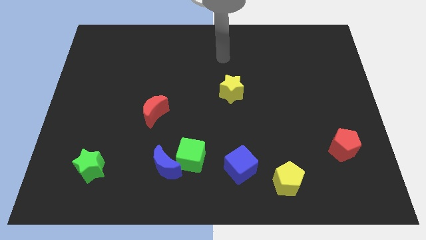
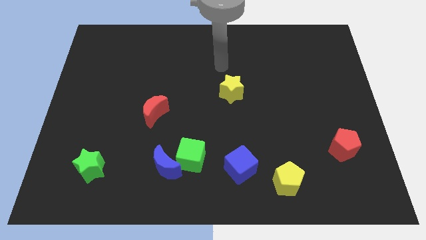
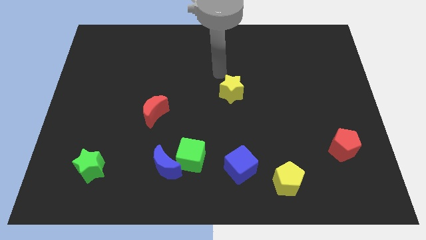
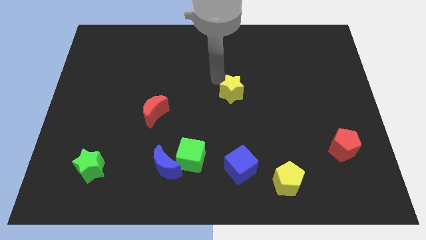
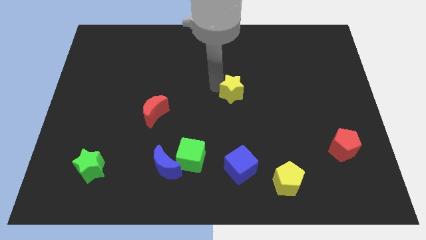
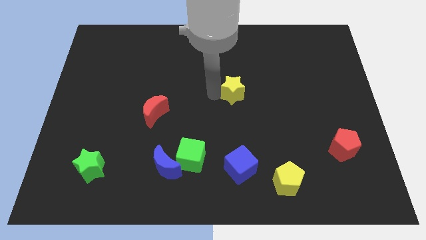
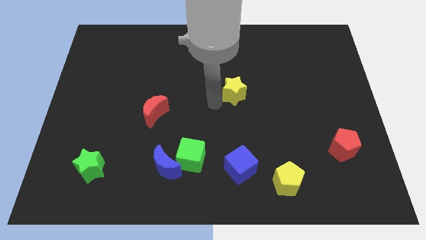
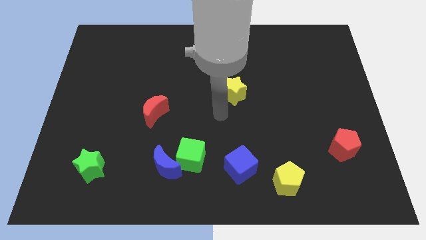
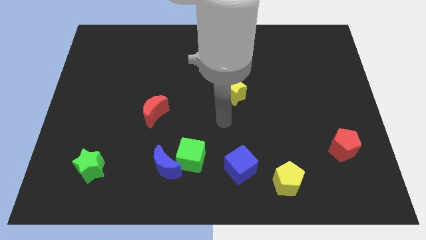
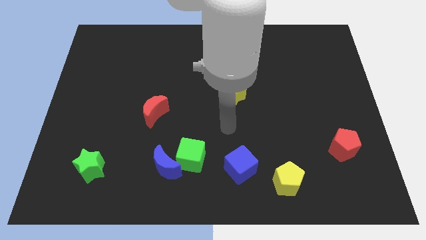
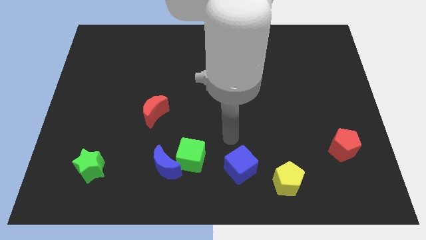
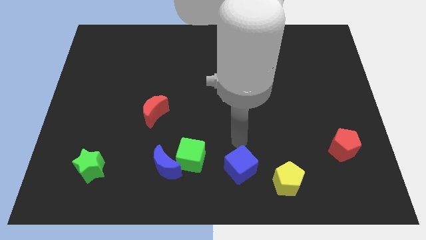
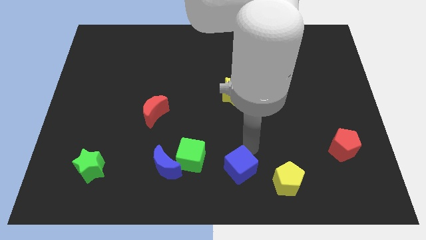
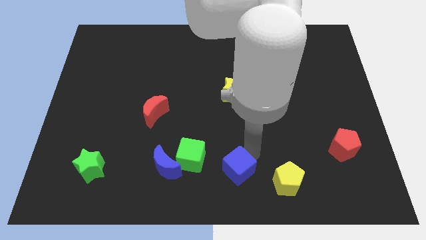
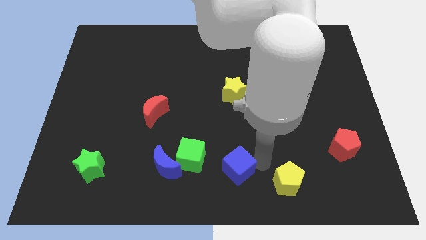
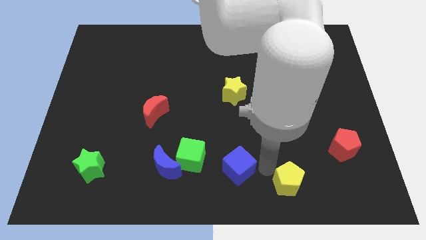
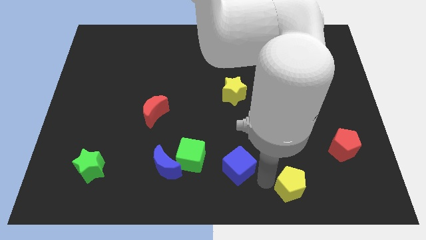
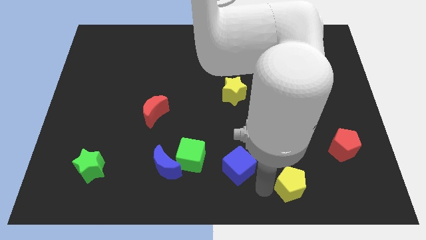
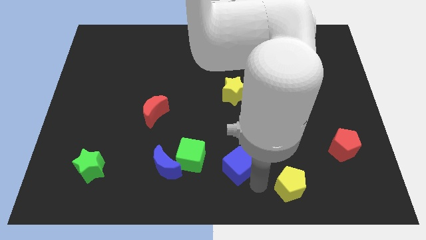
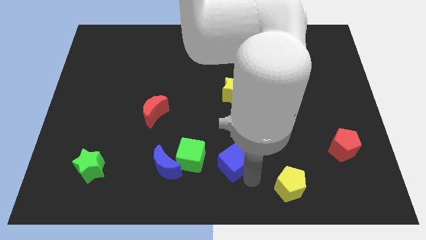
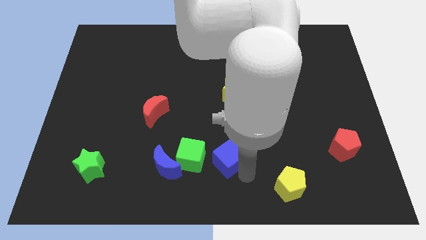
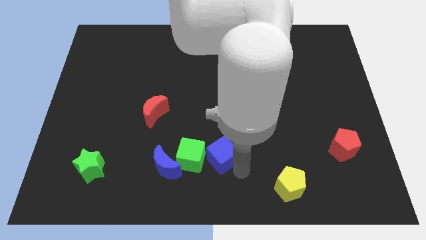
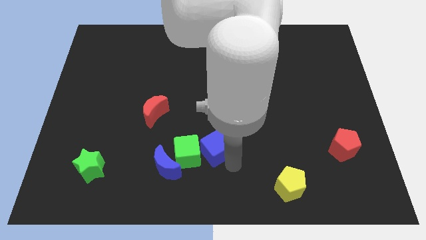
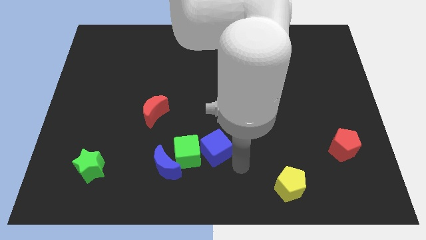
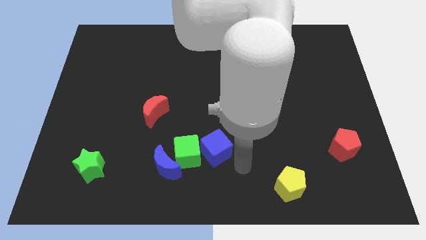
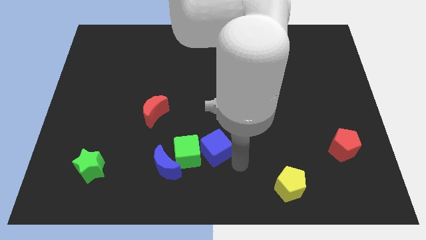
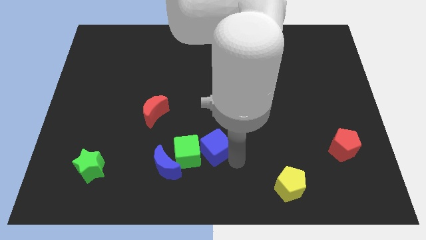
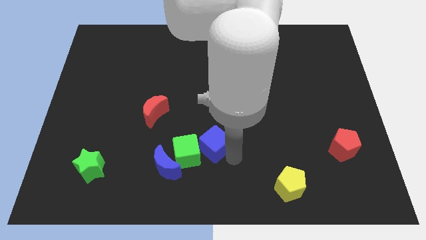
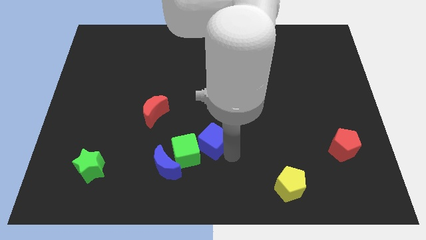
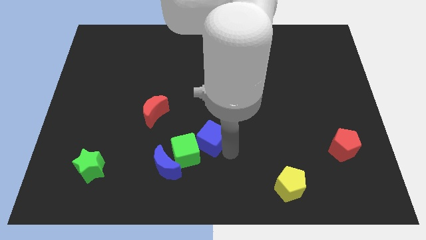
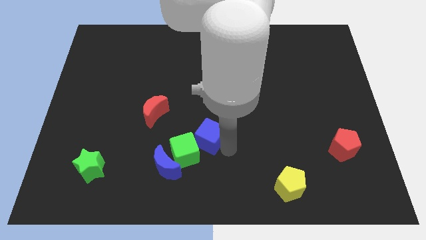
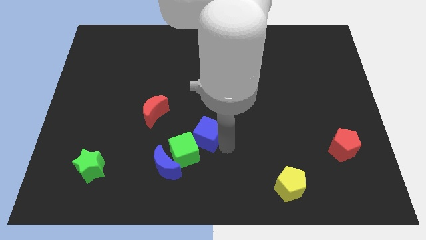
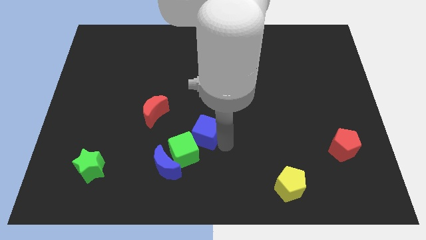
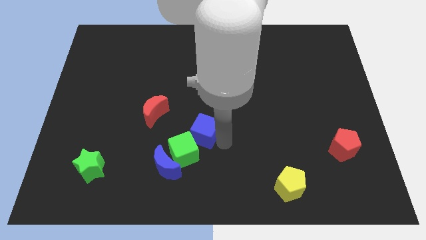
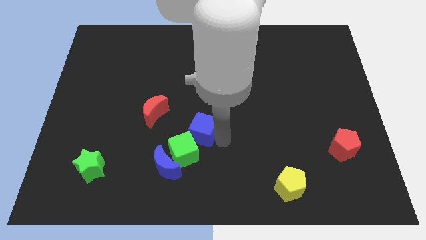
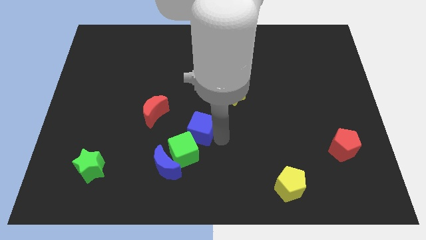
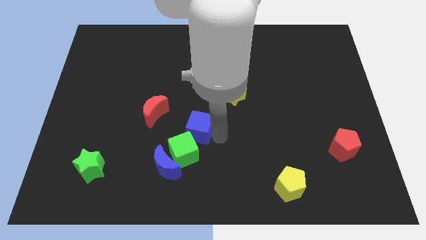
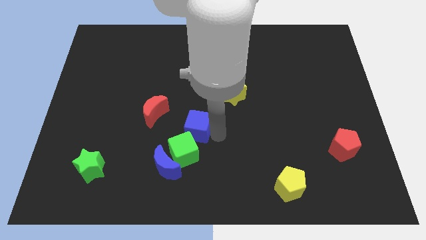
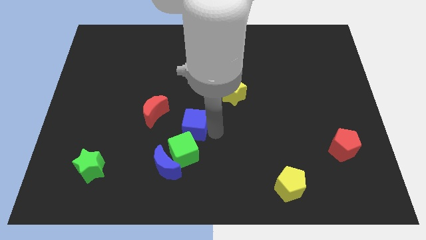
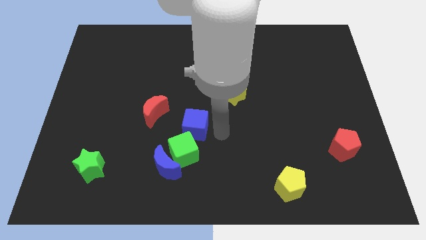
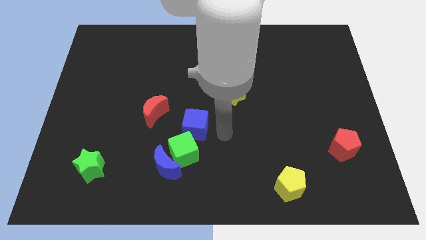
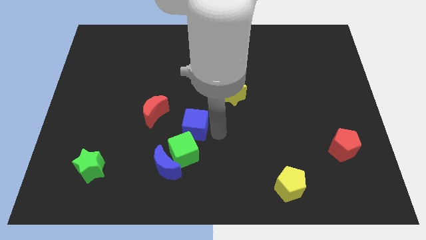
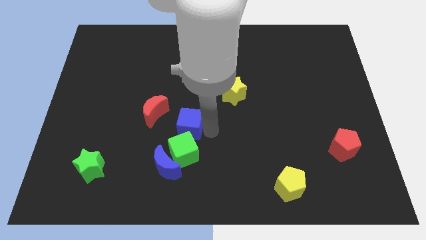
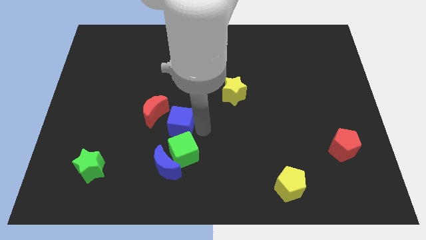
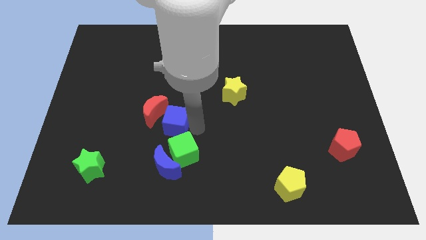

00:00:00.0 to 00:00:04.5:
slide the blue cube to the red moon

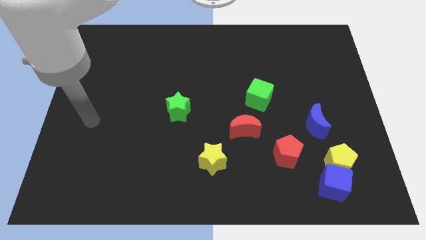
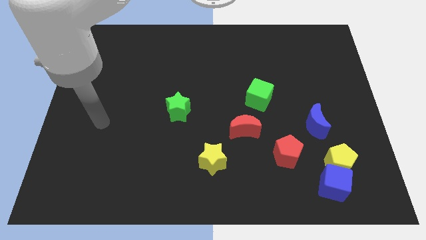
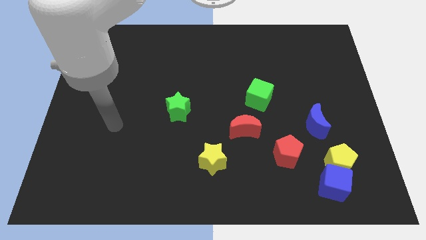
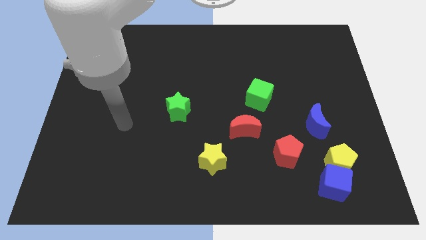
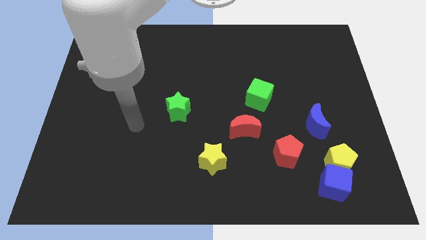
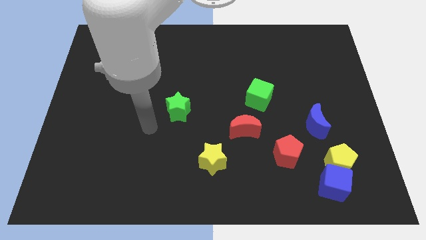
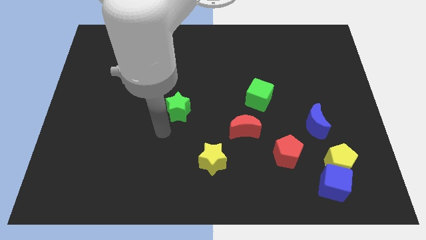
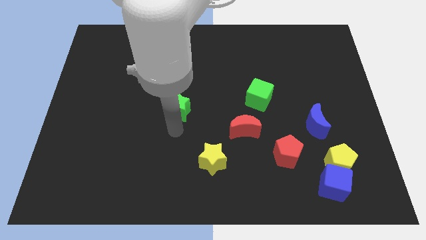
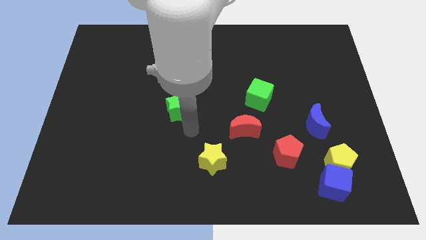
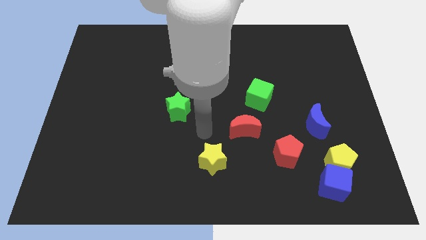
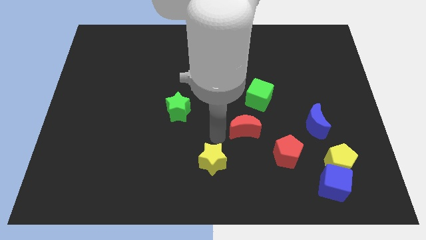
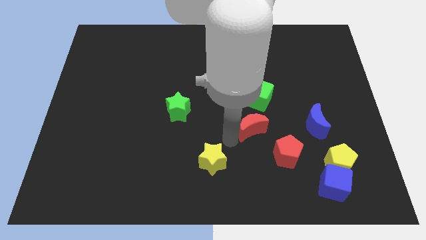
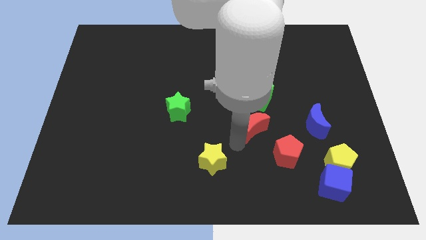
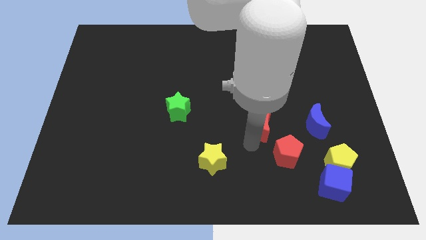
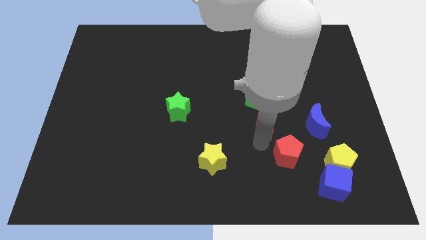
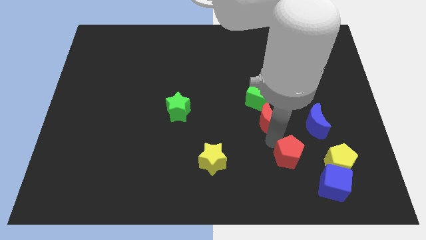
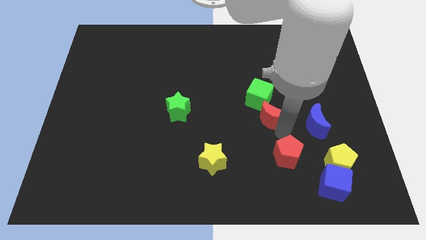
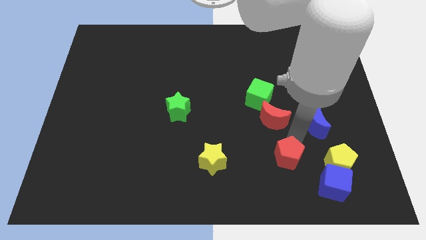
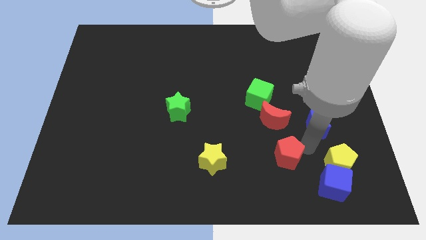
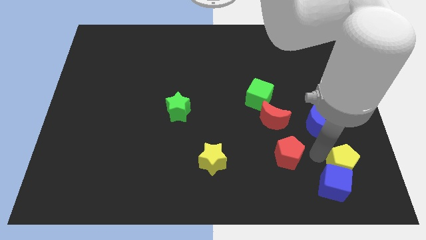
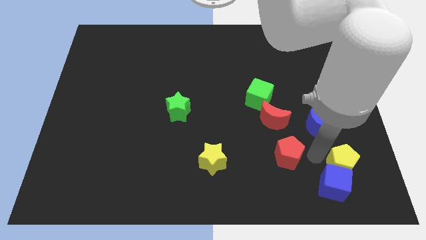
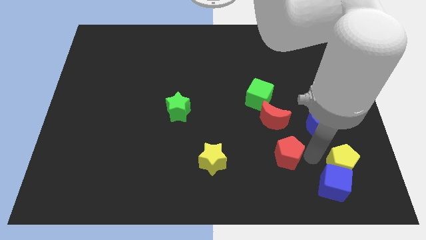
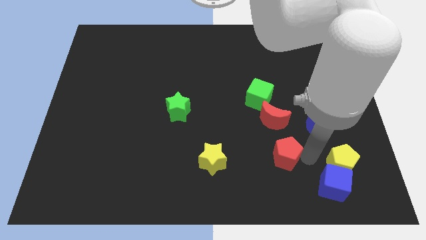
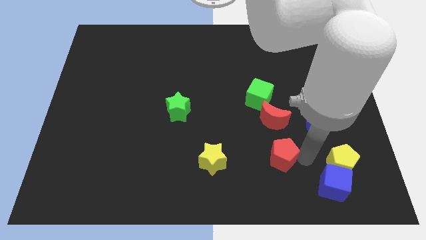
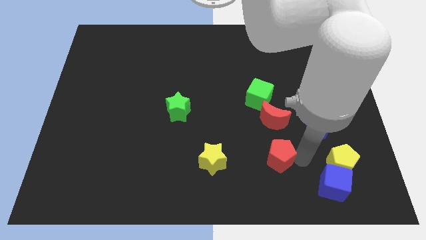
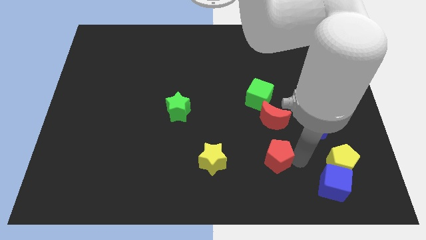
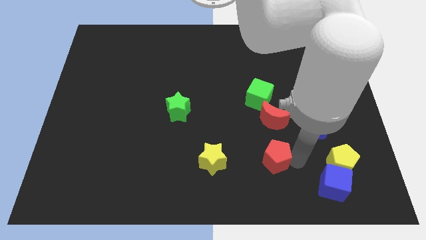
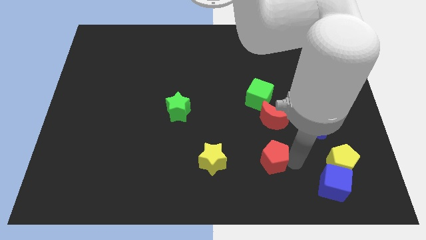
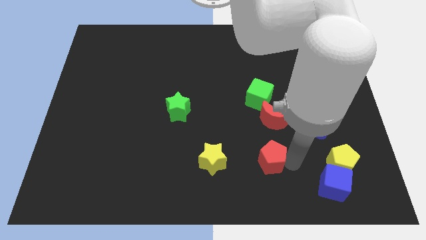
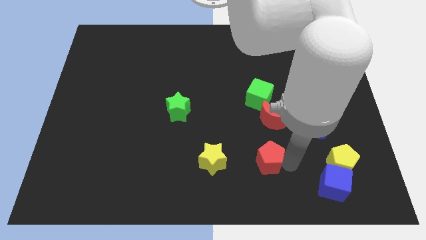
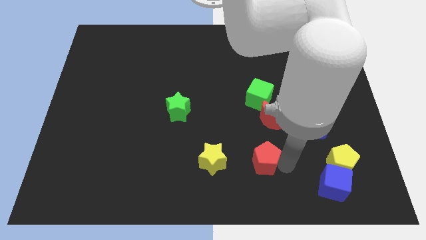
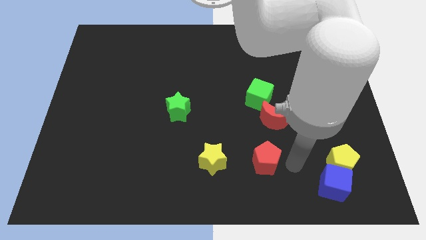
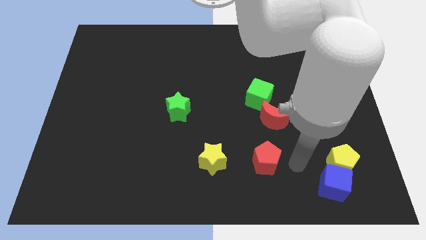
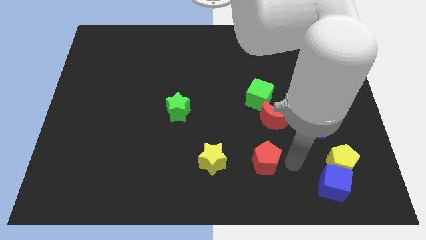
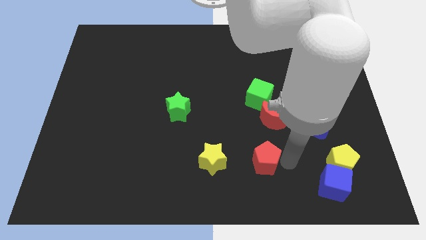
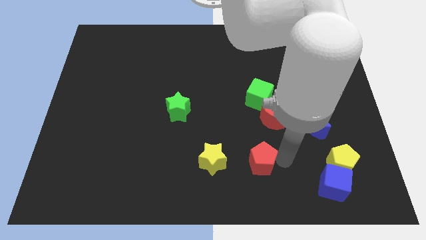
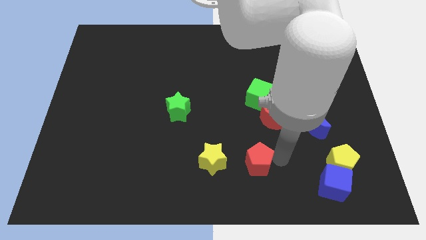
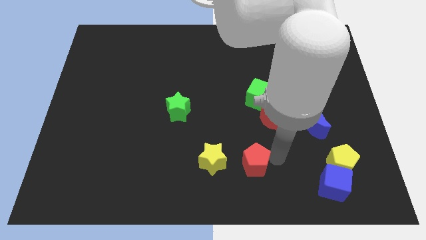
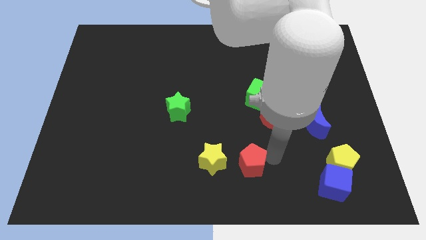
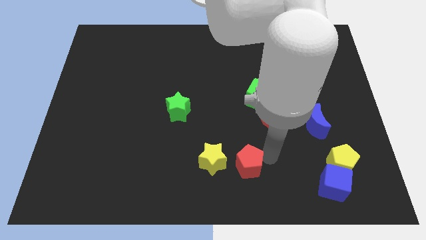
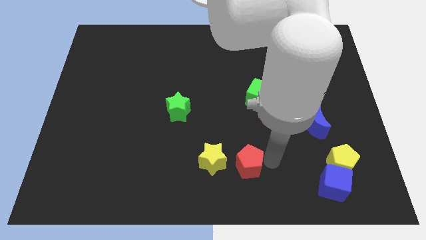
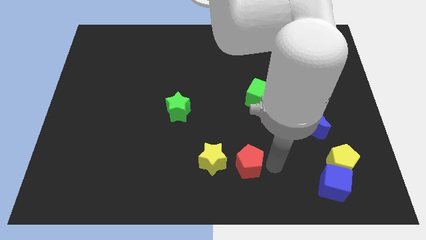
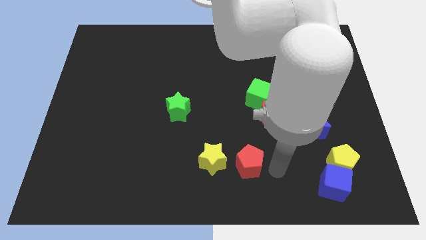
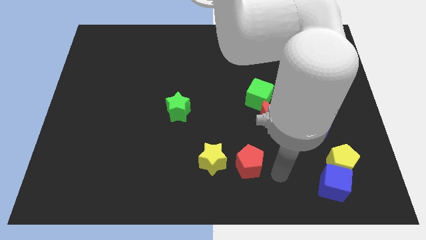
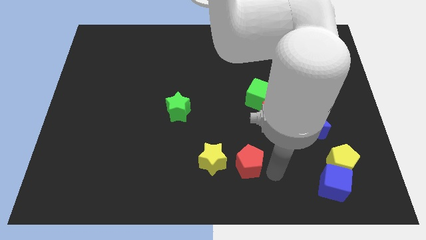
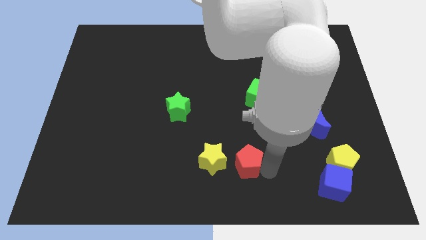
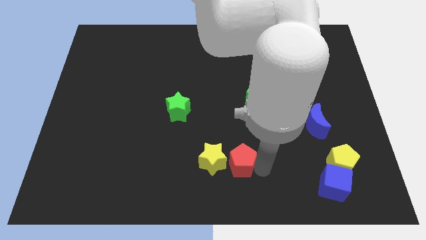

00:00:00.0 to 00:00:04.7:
push the red pentagon towards the yellow star
